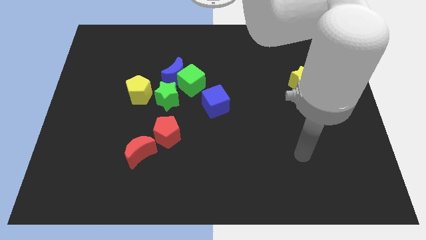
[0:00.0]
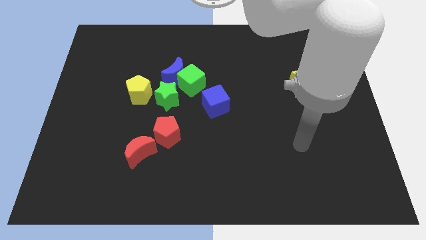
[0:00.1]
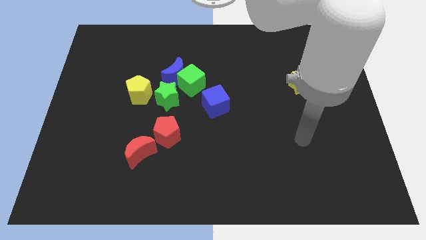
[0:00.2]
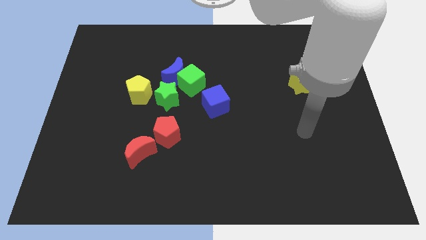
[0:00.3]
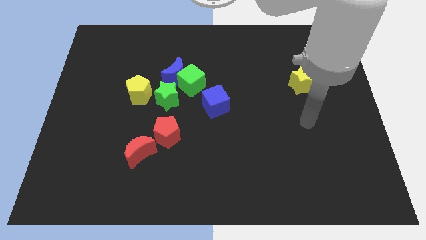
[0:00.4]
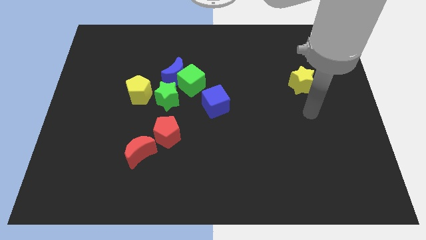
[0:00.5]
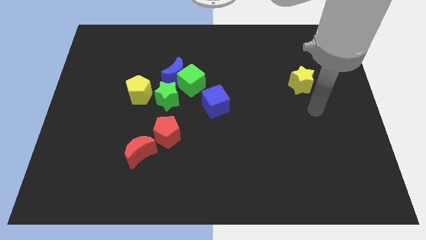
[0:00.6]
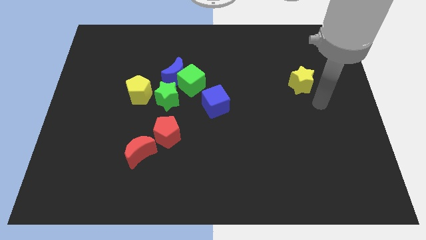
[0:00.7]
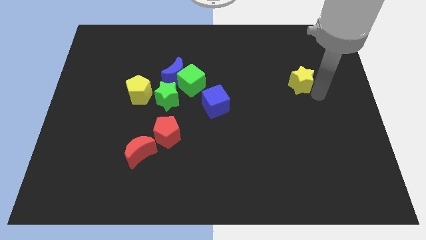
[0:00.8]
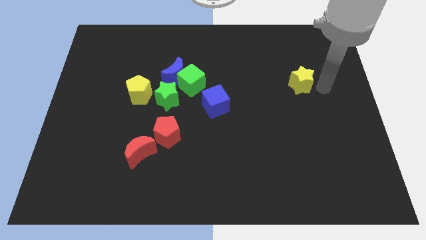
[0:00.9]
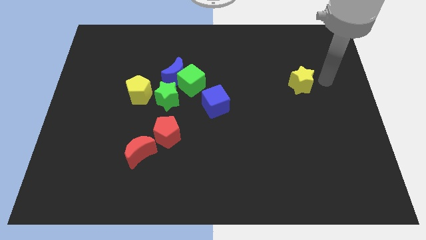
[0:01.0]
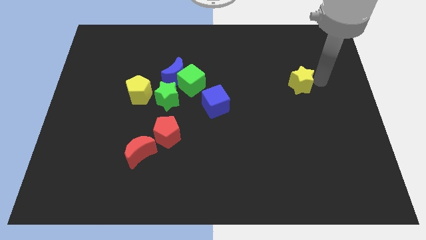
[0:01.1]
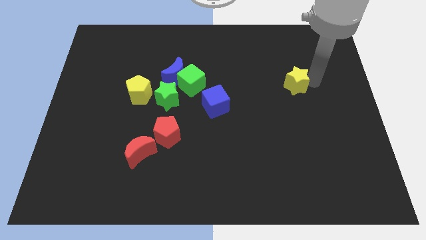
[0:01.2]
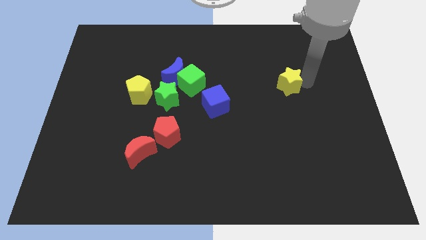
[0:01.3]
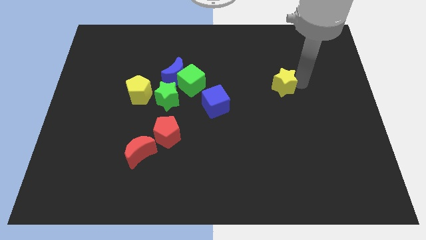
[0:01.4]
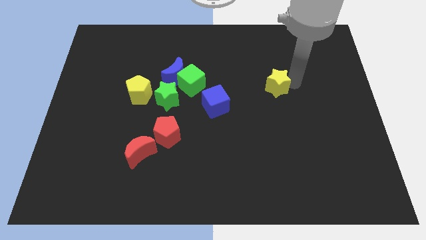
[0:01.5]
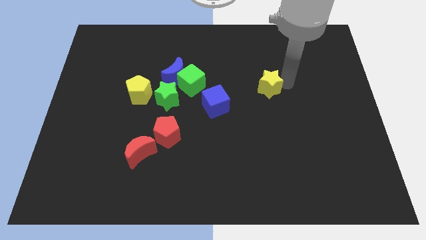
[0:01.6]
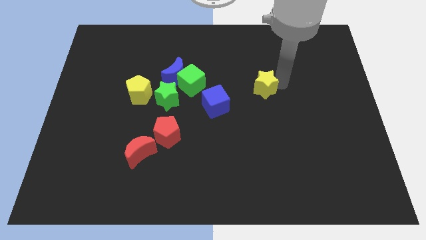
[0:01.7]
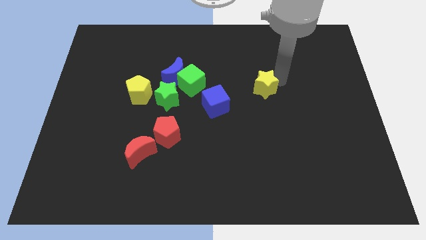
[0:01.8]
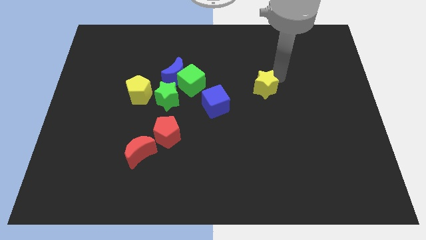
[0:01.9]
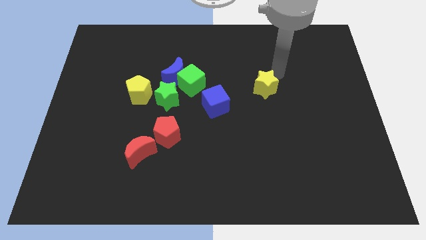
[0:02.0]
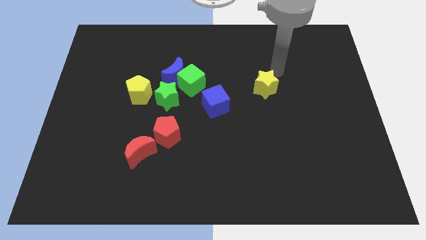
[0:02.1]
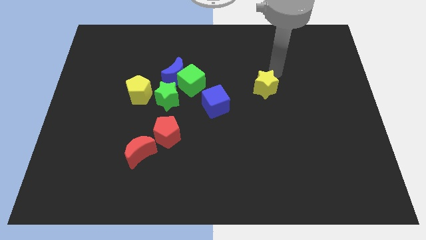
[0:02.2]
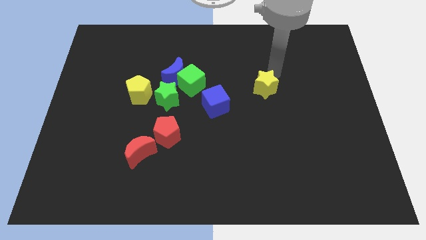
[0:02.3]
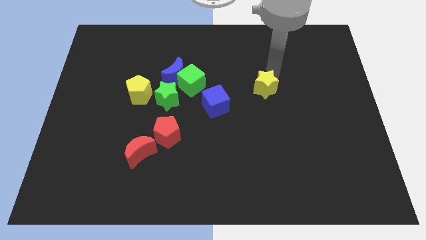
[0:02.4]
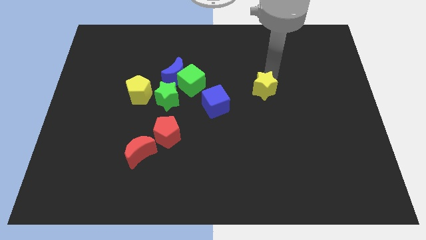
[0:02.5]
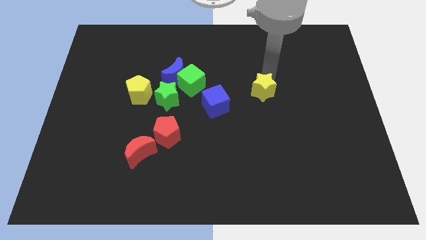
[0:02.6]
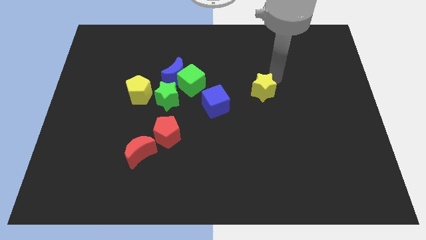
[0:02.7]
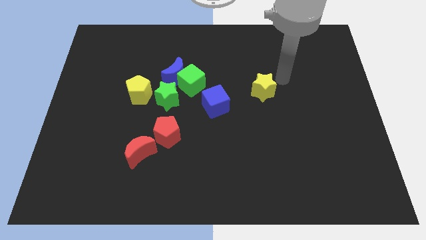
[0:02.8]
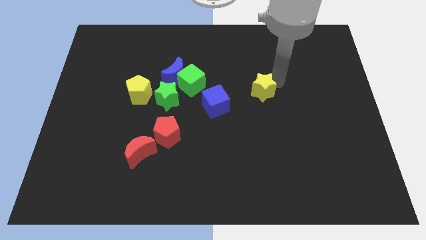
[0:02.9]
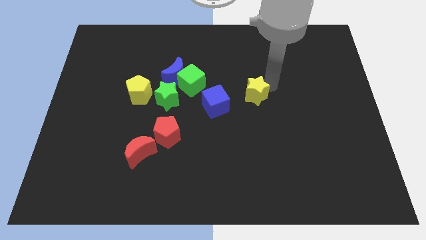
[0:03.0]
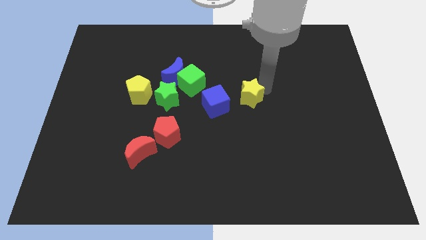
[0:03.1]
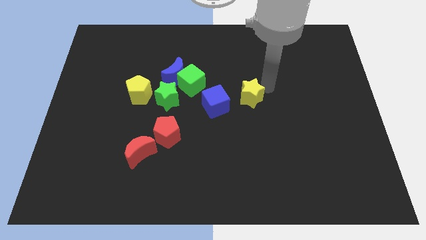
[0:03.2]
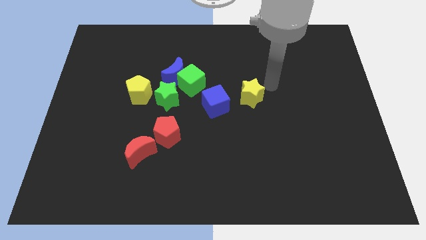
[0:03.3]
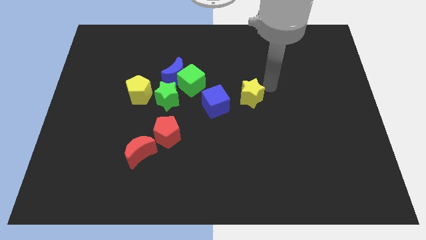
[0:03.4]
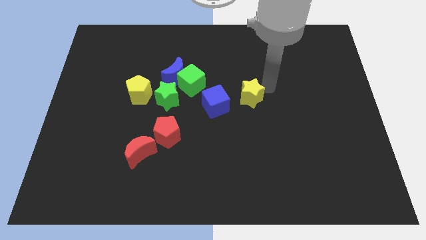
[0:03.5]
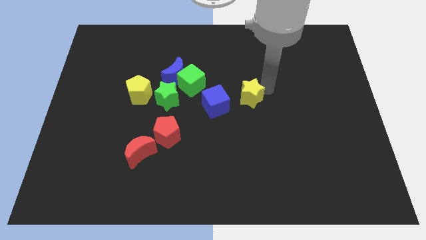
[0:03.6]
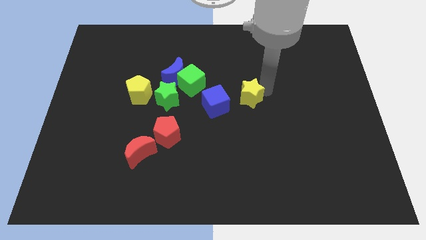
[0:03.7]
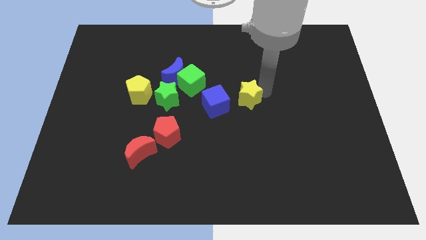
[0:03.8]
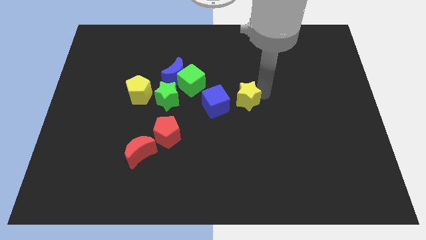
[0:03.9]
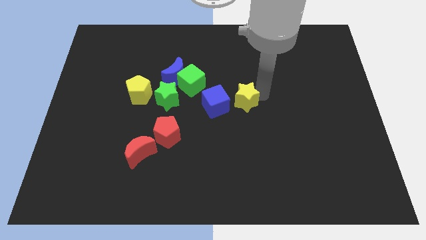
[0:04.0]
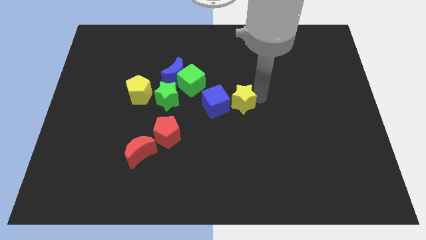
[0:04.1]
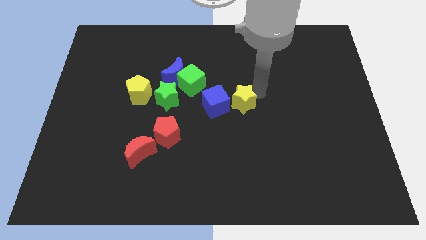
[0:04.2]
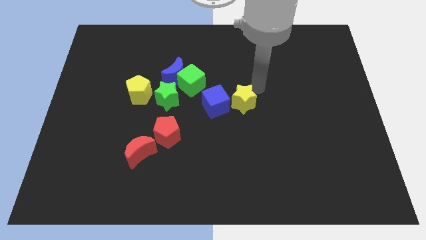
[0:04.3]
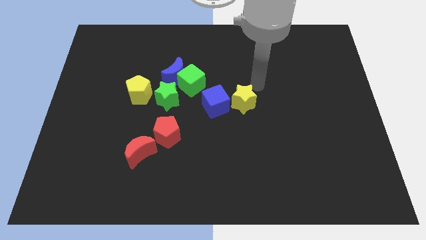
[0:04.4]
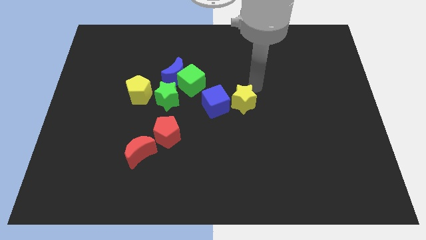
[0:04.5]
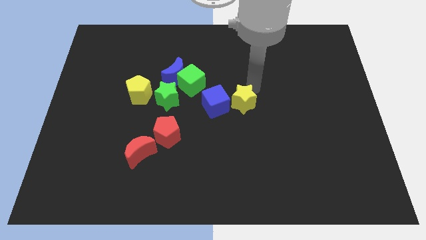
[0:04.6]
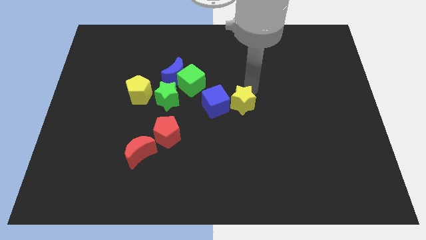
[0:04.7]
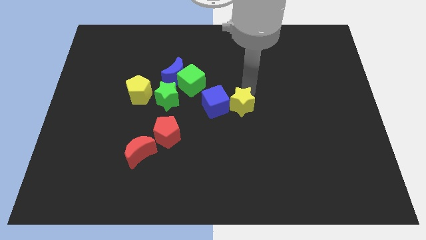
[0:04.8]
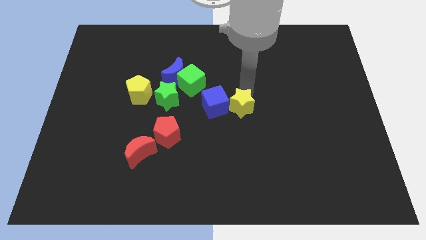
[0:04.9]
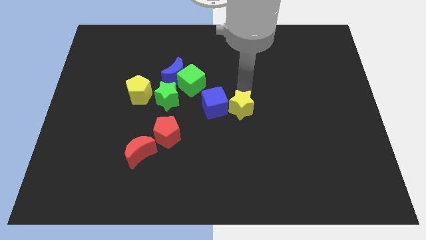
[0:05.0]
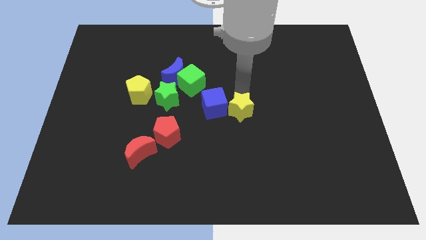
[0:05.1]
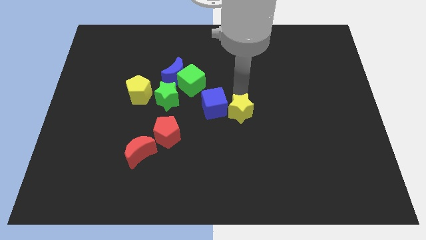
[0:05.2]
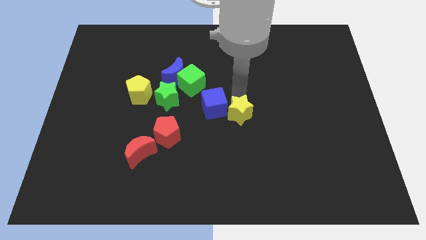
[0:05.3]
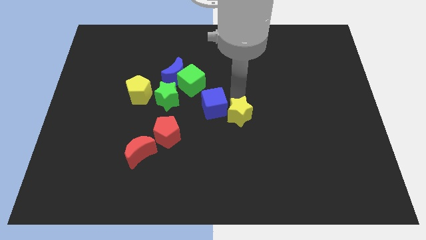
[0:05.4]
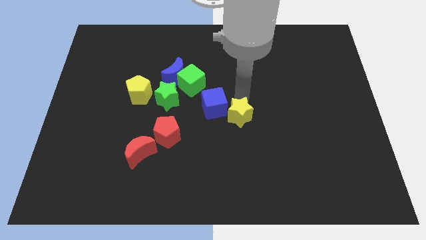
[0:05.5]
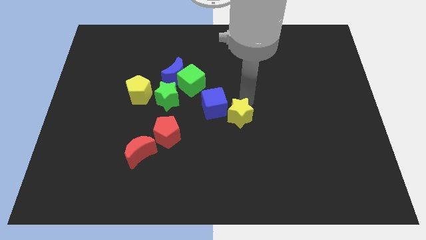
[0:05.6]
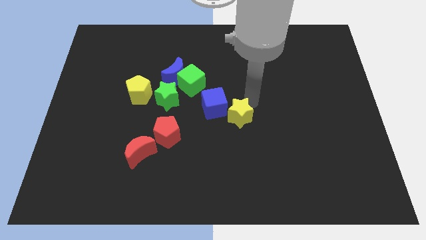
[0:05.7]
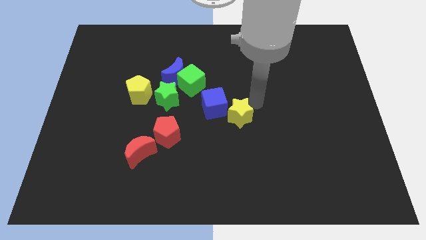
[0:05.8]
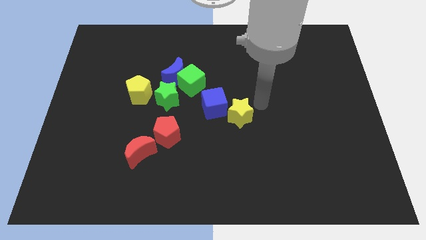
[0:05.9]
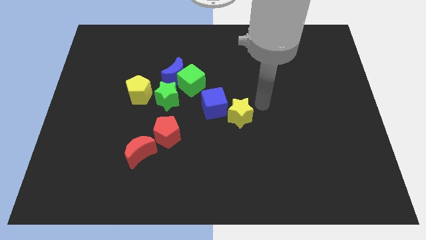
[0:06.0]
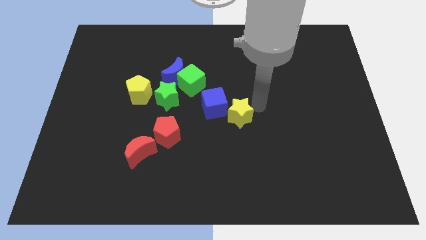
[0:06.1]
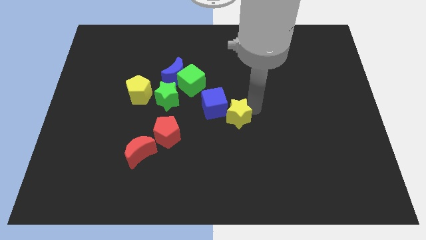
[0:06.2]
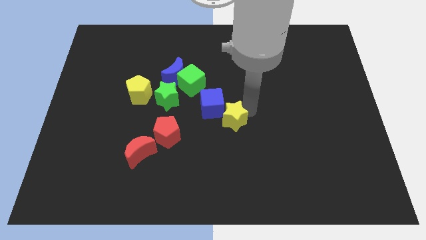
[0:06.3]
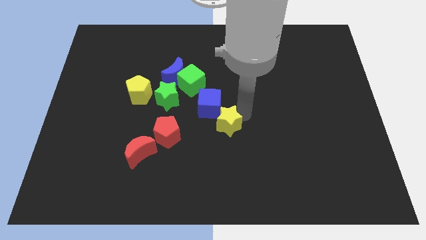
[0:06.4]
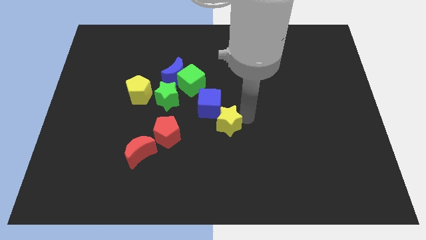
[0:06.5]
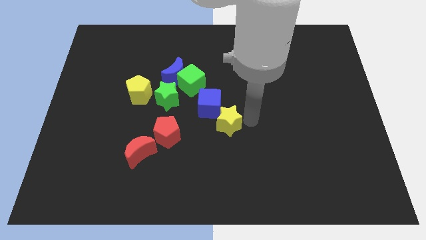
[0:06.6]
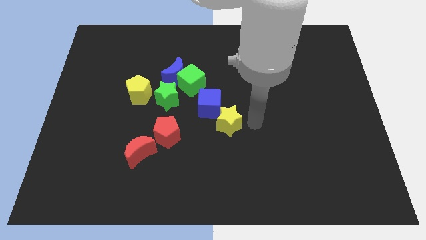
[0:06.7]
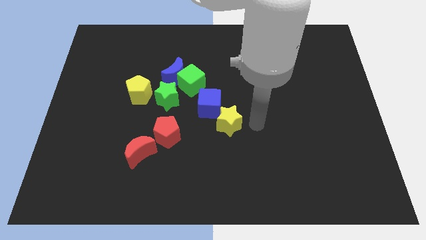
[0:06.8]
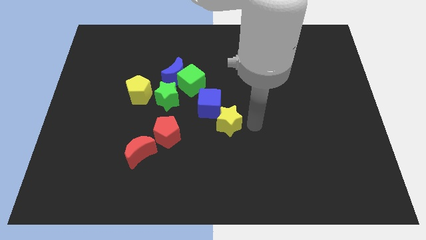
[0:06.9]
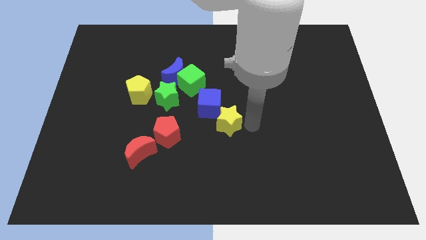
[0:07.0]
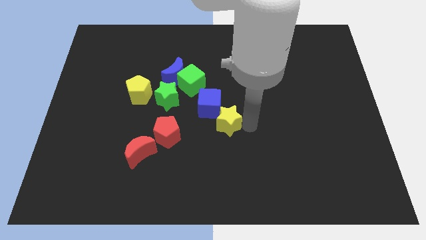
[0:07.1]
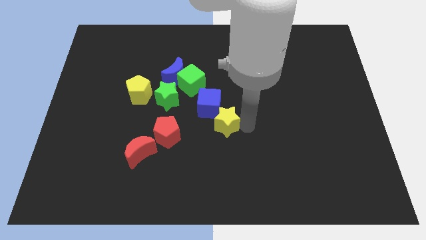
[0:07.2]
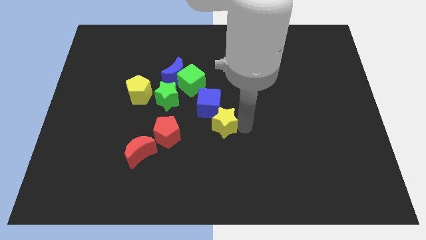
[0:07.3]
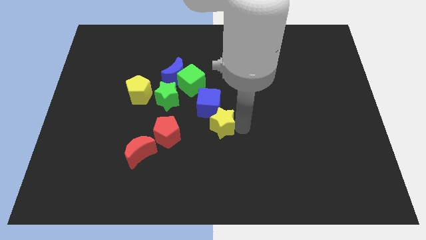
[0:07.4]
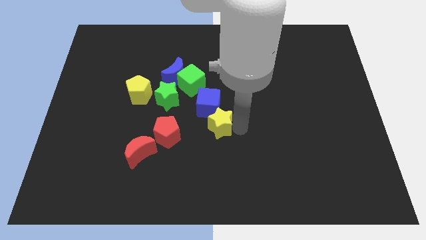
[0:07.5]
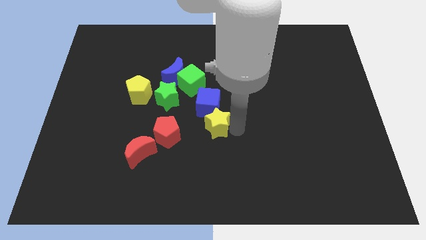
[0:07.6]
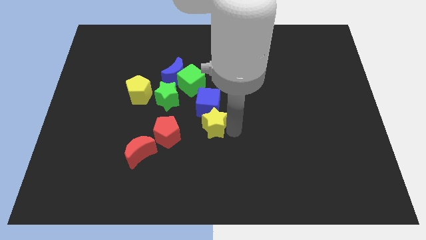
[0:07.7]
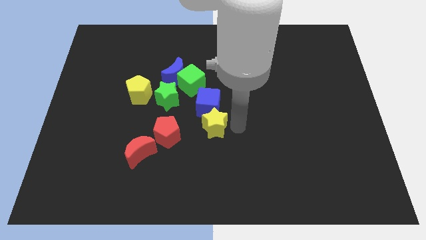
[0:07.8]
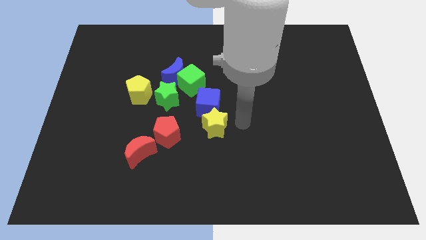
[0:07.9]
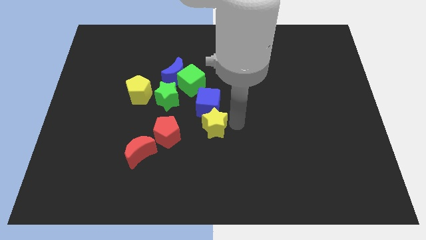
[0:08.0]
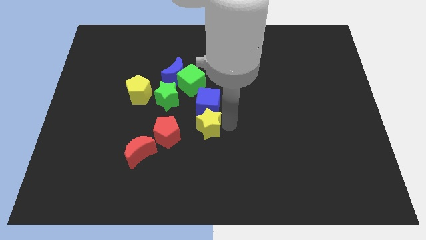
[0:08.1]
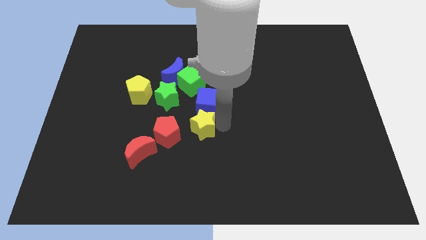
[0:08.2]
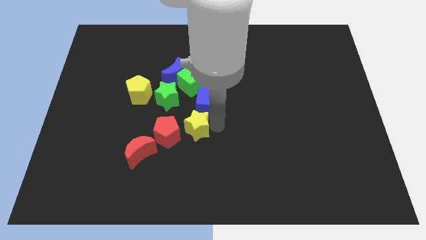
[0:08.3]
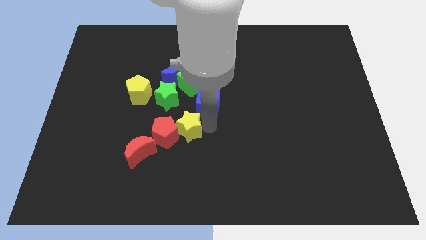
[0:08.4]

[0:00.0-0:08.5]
slide the yellow star next to the red pentagon
